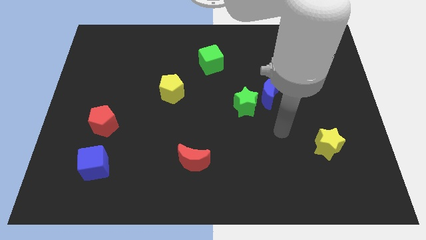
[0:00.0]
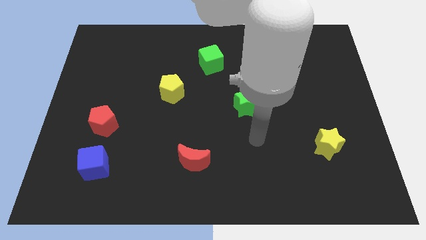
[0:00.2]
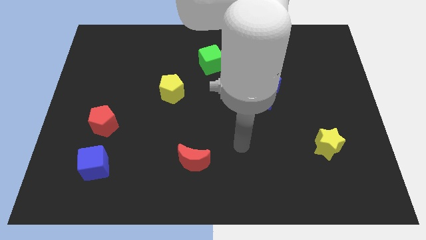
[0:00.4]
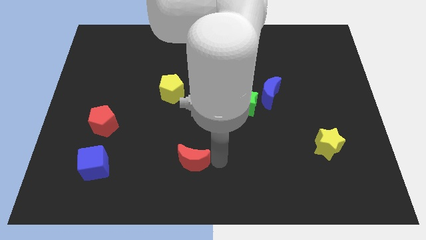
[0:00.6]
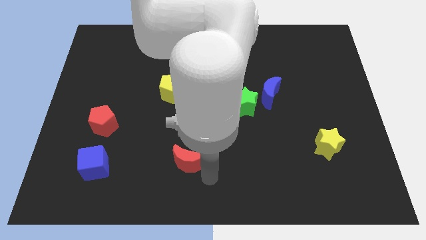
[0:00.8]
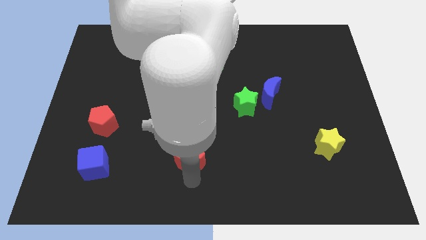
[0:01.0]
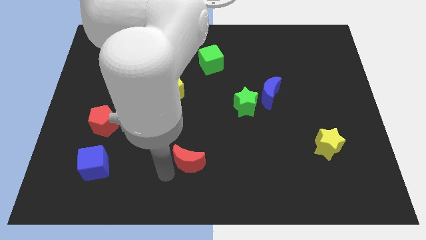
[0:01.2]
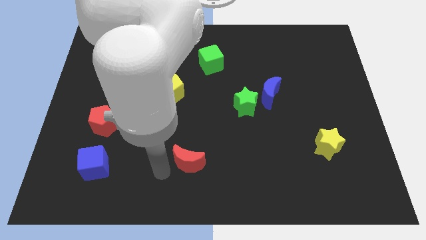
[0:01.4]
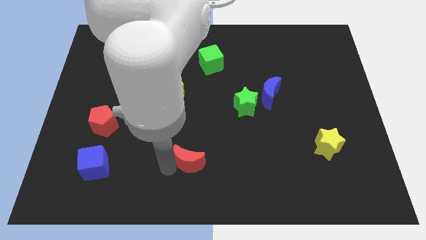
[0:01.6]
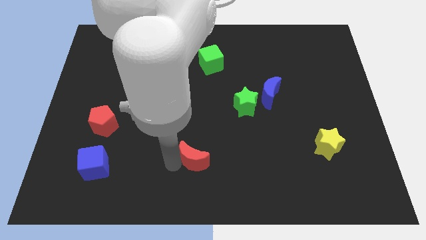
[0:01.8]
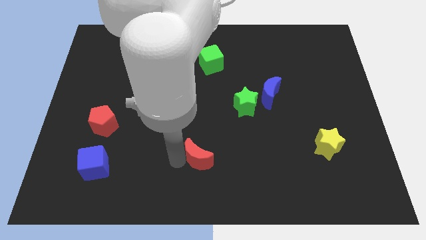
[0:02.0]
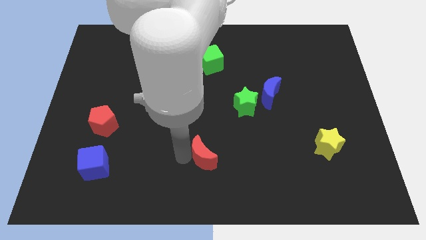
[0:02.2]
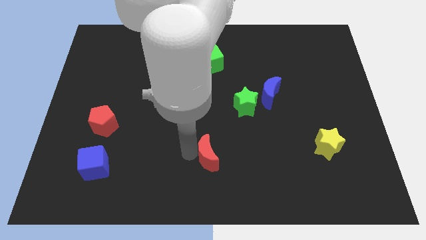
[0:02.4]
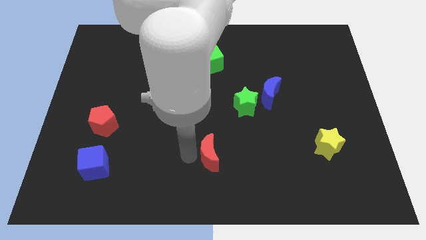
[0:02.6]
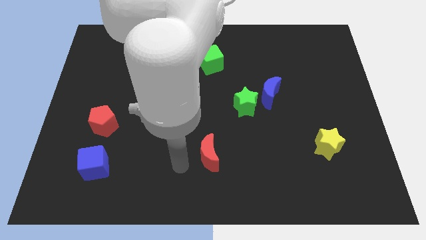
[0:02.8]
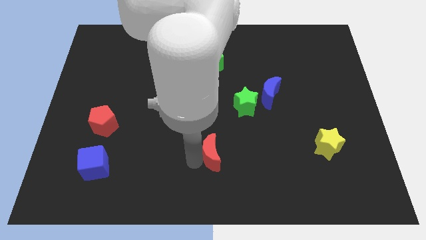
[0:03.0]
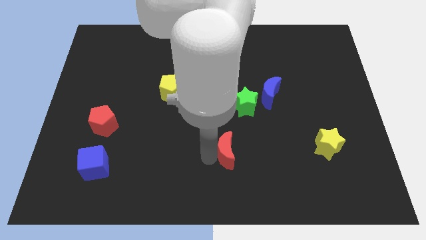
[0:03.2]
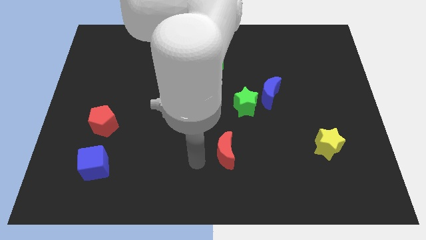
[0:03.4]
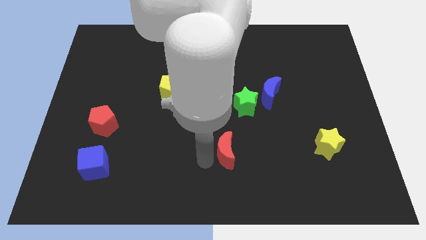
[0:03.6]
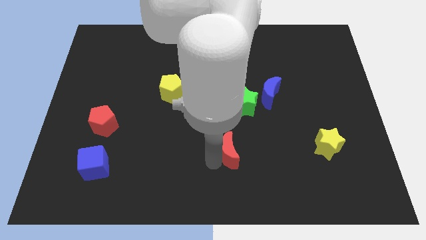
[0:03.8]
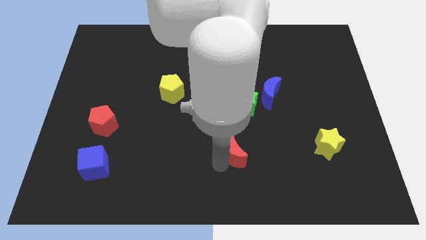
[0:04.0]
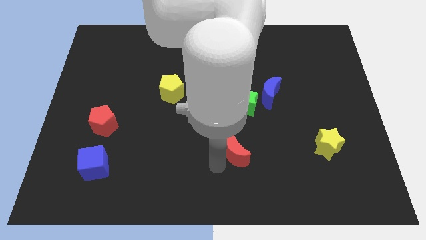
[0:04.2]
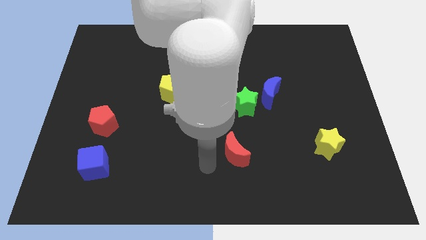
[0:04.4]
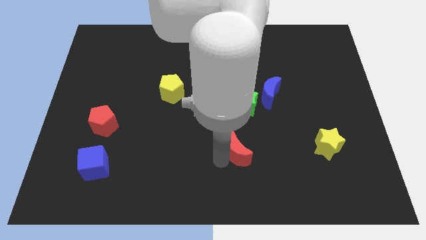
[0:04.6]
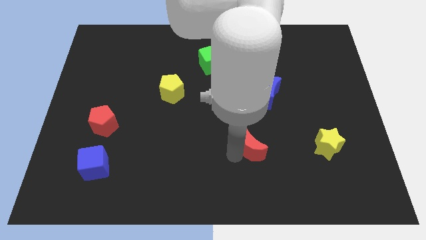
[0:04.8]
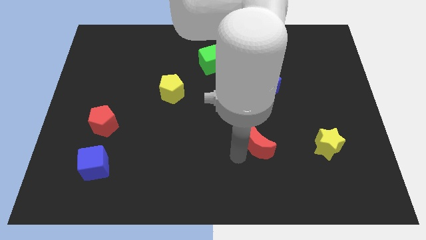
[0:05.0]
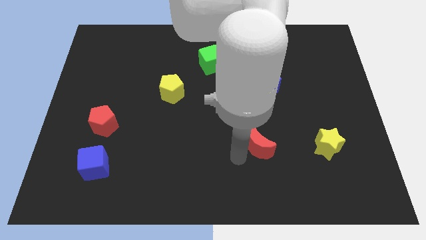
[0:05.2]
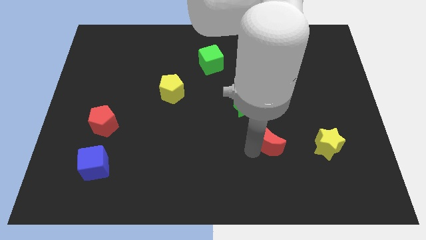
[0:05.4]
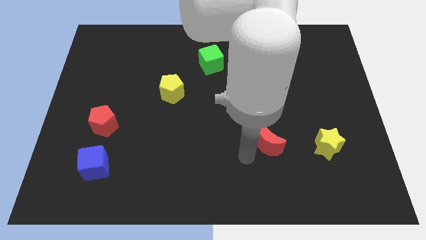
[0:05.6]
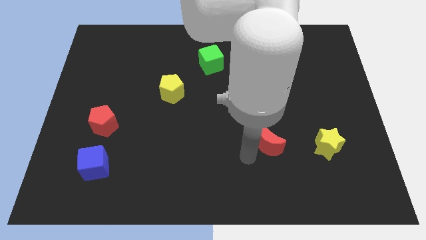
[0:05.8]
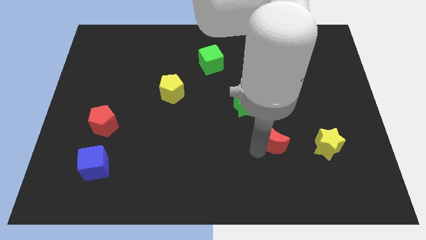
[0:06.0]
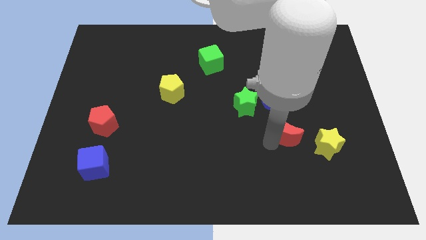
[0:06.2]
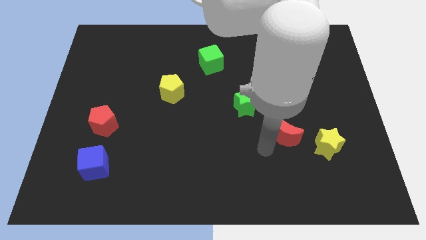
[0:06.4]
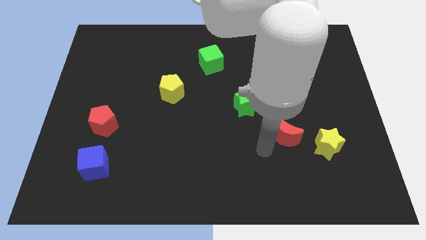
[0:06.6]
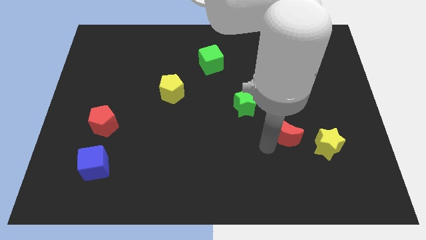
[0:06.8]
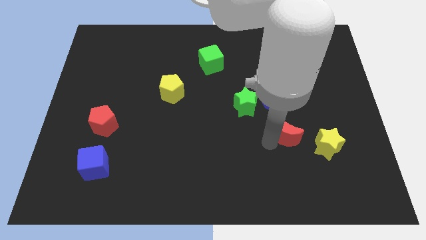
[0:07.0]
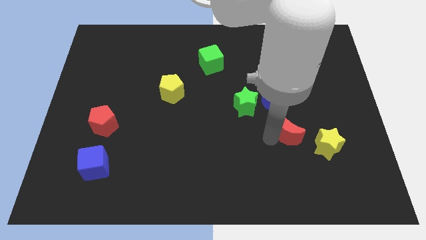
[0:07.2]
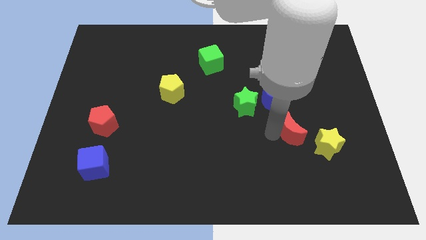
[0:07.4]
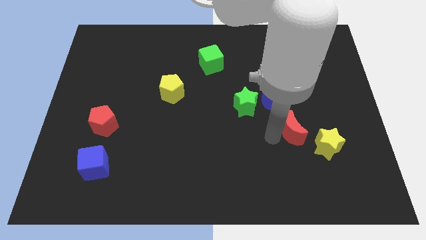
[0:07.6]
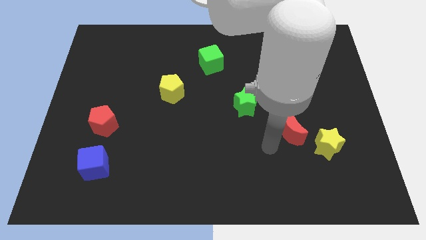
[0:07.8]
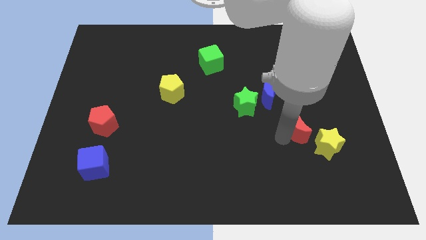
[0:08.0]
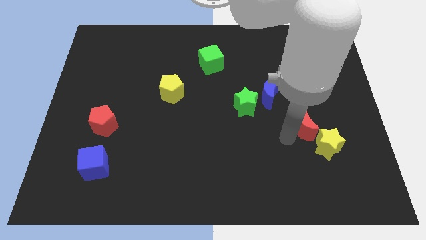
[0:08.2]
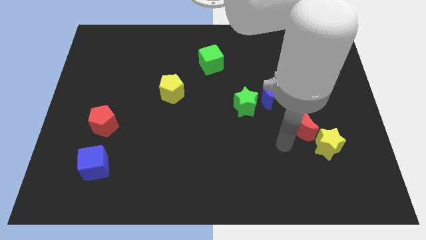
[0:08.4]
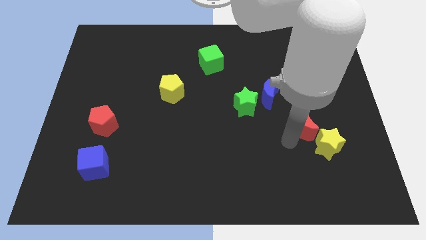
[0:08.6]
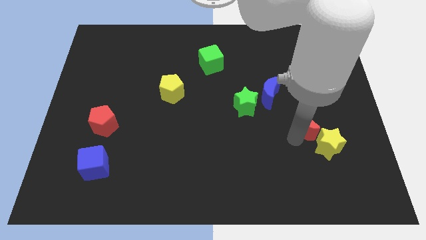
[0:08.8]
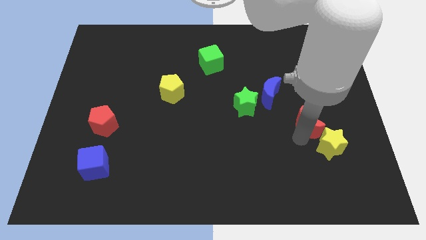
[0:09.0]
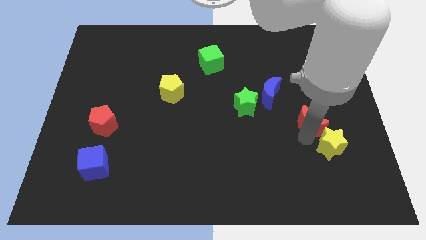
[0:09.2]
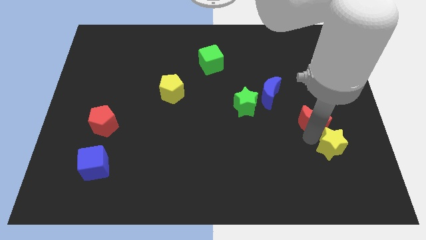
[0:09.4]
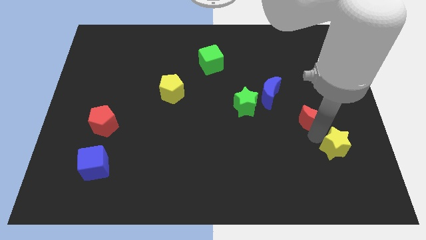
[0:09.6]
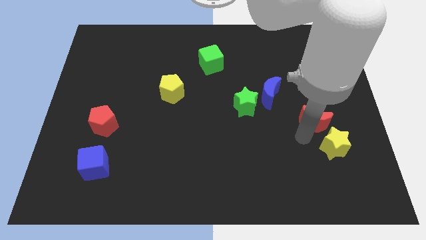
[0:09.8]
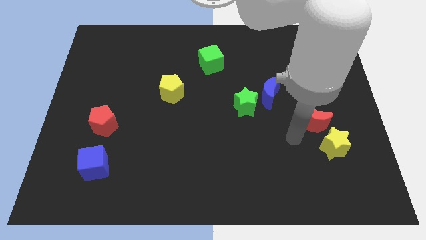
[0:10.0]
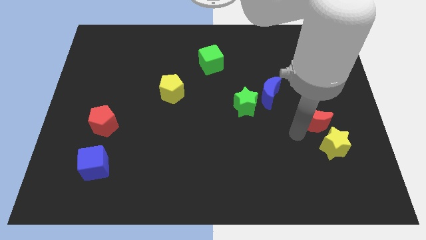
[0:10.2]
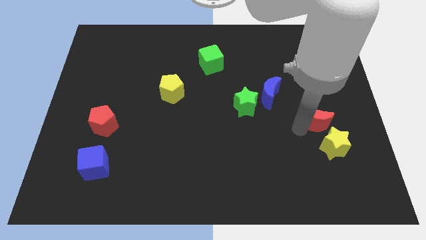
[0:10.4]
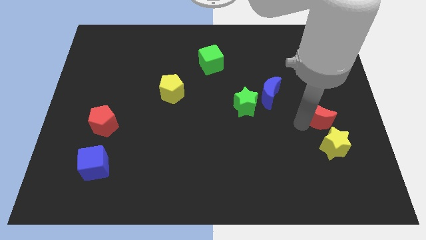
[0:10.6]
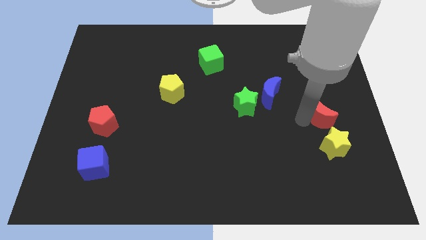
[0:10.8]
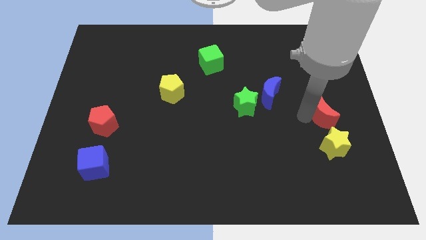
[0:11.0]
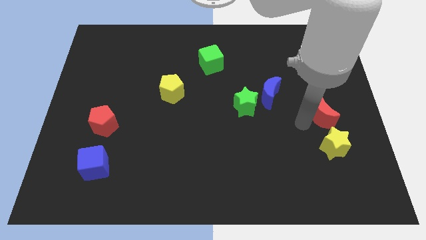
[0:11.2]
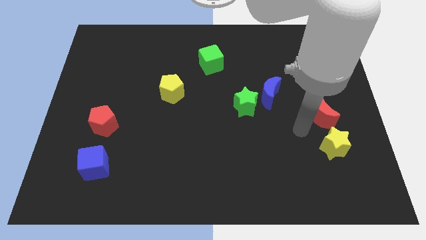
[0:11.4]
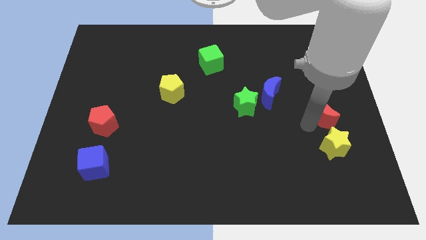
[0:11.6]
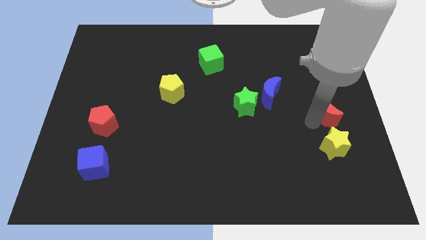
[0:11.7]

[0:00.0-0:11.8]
push the red moon to the right side

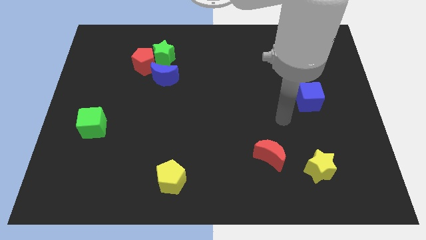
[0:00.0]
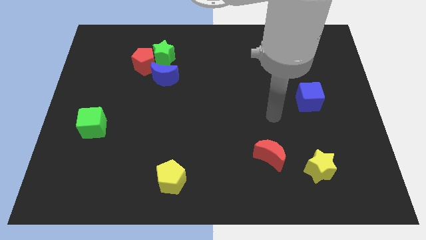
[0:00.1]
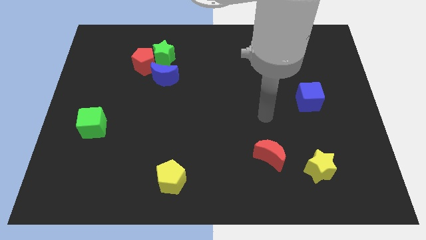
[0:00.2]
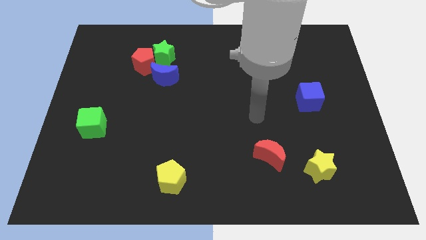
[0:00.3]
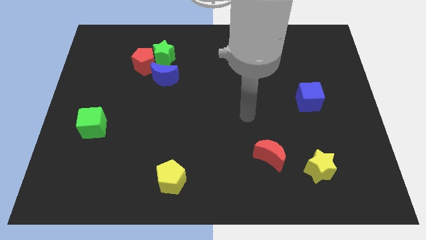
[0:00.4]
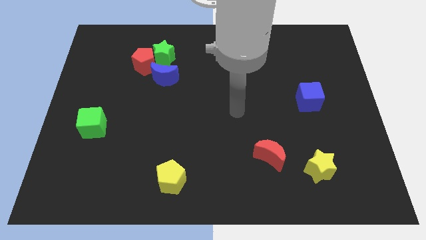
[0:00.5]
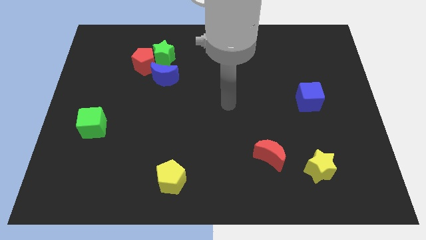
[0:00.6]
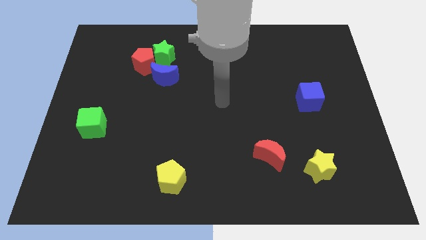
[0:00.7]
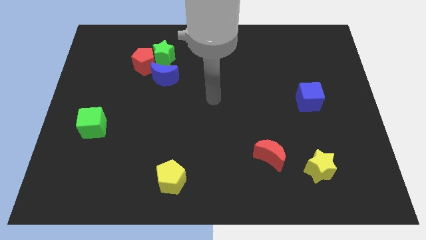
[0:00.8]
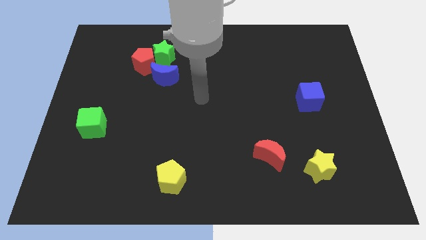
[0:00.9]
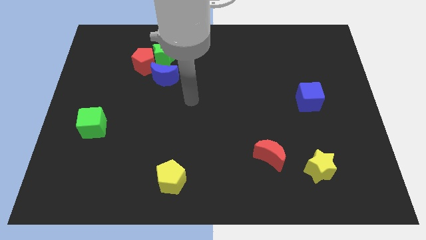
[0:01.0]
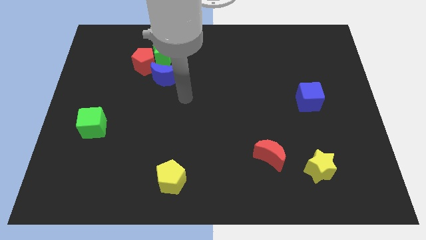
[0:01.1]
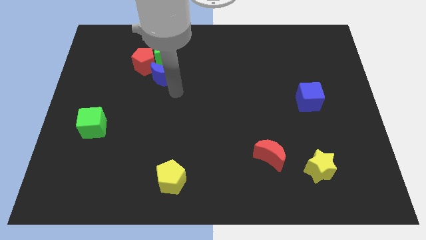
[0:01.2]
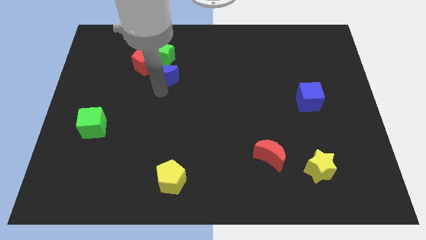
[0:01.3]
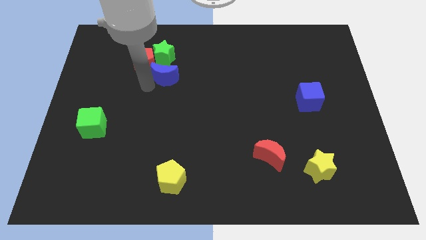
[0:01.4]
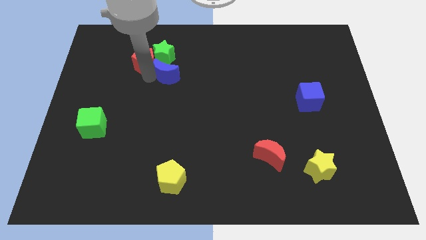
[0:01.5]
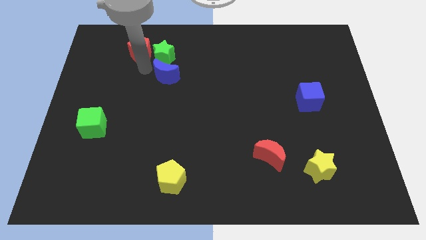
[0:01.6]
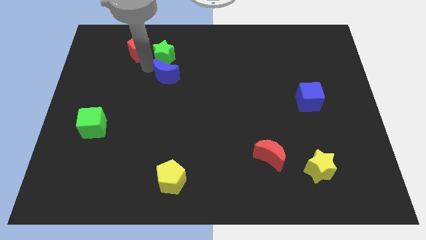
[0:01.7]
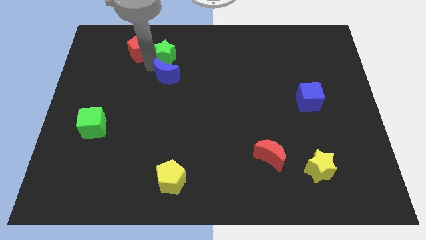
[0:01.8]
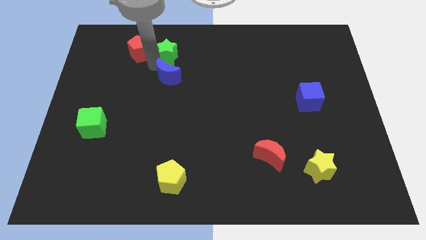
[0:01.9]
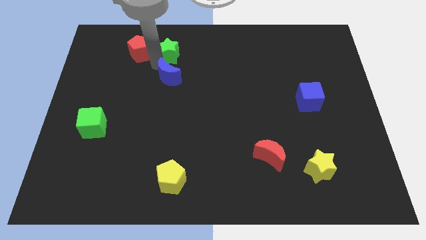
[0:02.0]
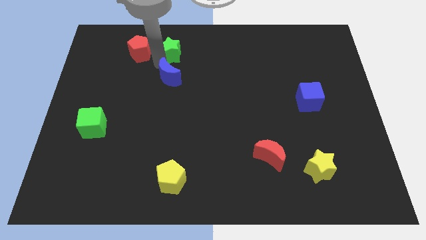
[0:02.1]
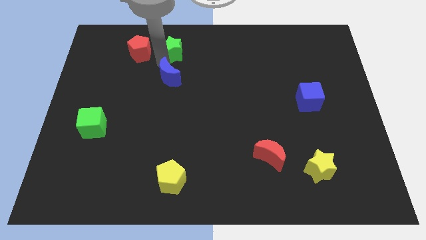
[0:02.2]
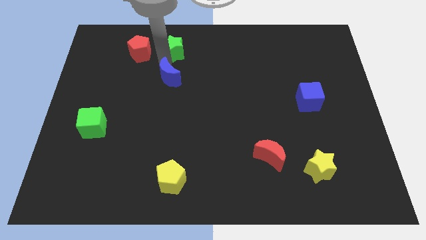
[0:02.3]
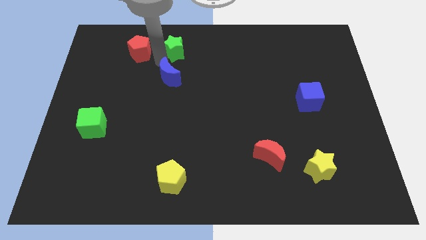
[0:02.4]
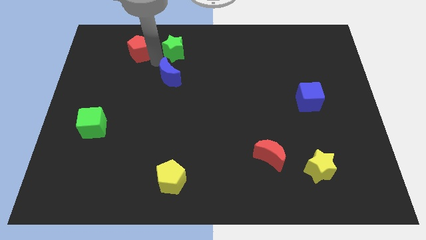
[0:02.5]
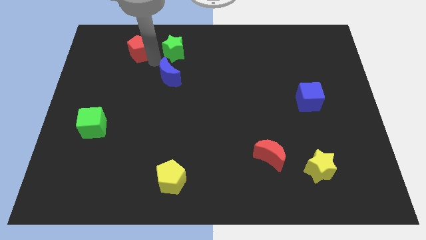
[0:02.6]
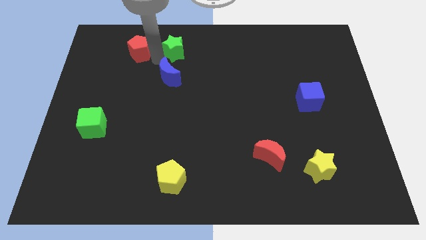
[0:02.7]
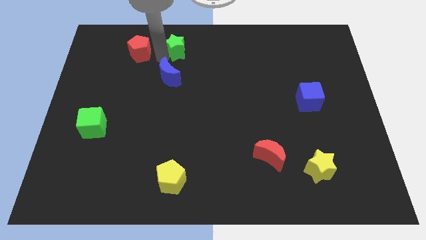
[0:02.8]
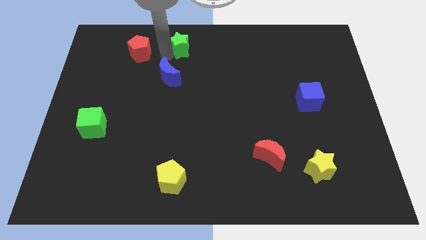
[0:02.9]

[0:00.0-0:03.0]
slide the green star to the top side
